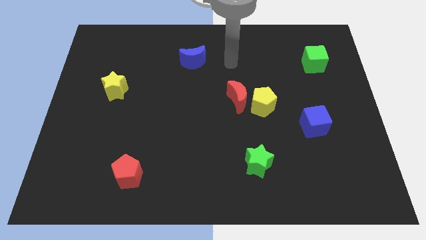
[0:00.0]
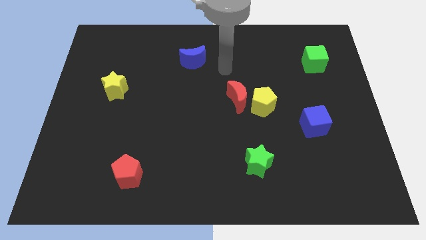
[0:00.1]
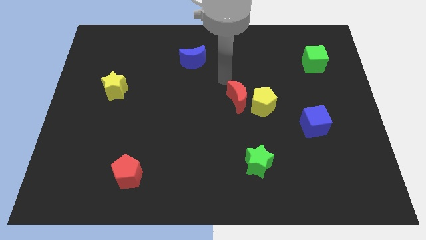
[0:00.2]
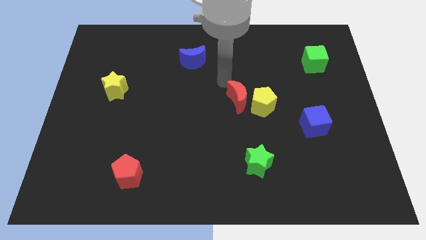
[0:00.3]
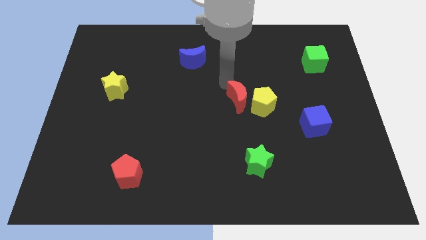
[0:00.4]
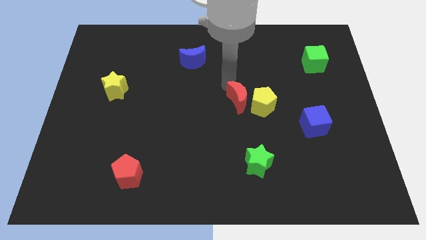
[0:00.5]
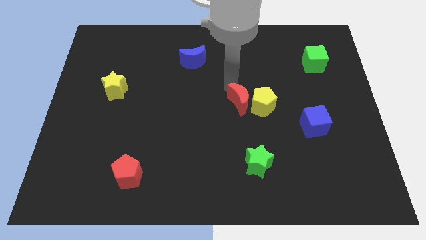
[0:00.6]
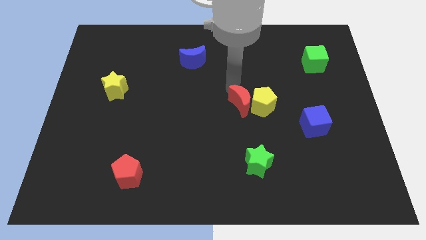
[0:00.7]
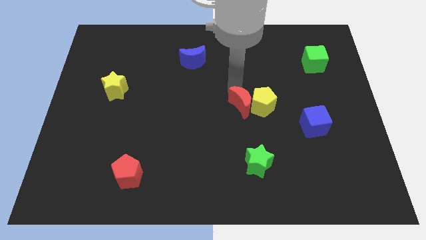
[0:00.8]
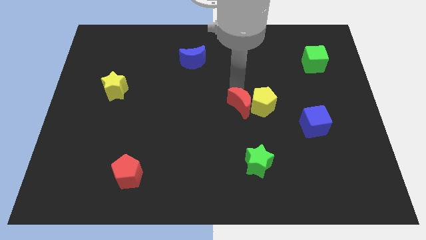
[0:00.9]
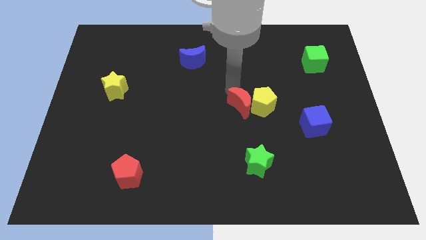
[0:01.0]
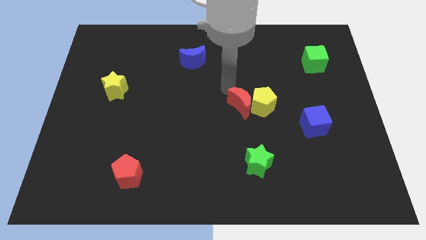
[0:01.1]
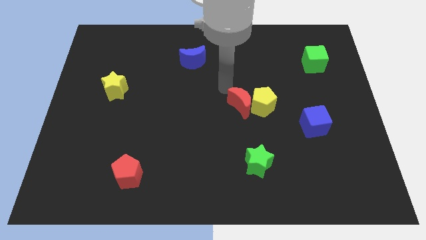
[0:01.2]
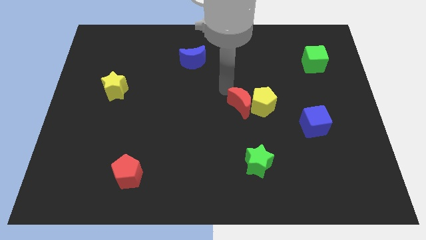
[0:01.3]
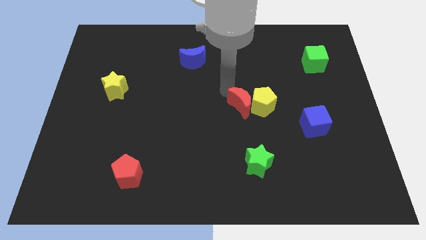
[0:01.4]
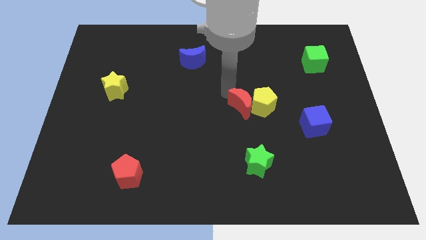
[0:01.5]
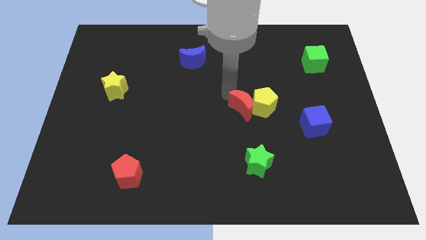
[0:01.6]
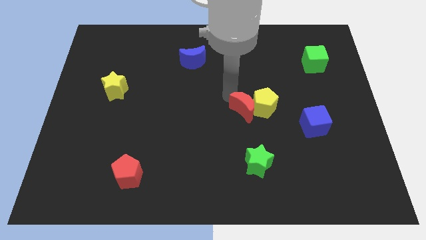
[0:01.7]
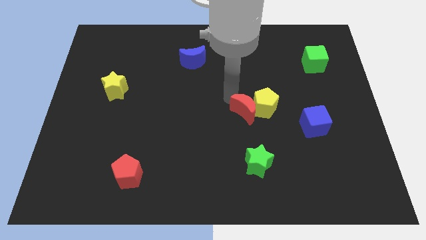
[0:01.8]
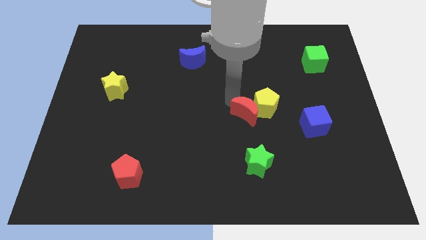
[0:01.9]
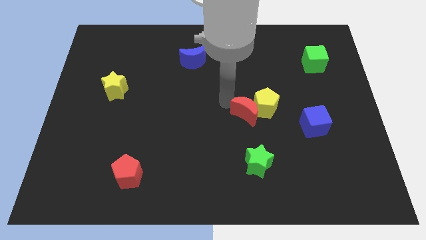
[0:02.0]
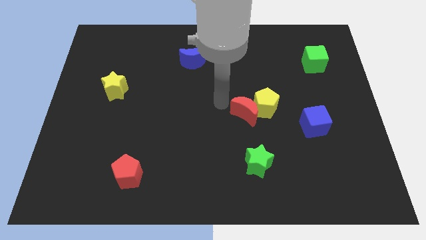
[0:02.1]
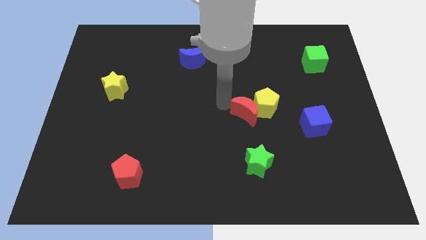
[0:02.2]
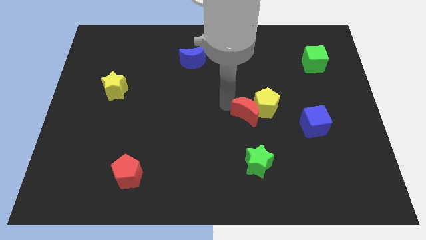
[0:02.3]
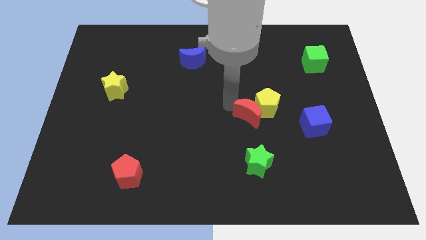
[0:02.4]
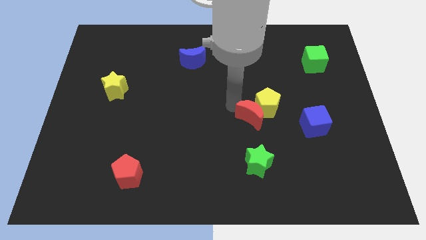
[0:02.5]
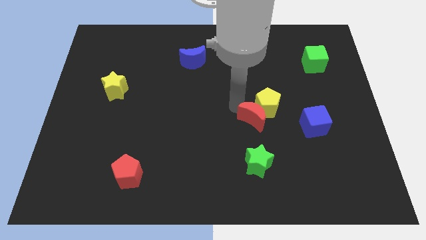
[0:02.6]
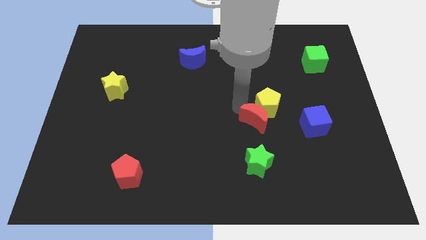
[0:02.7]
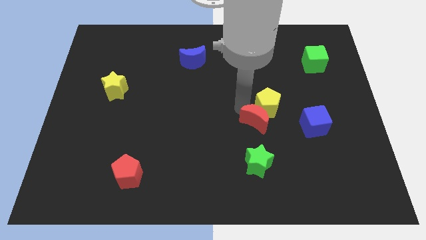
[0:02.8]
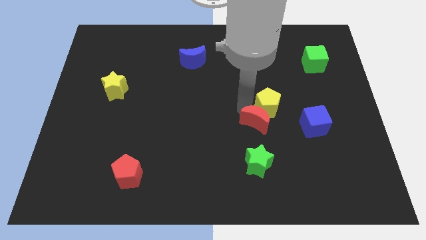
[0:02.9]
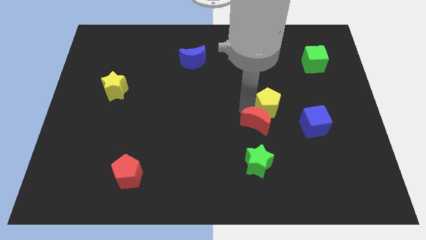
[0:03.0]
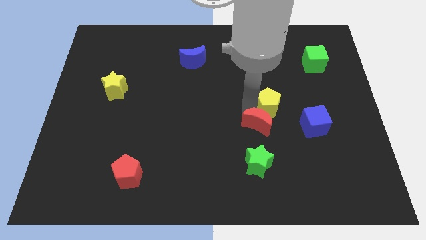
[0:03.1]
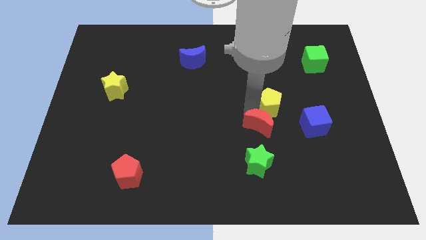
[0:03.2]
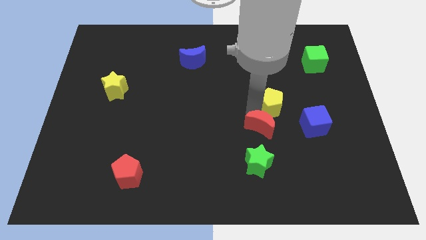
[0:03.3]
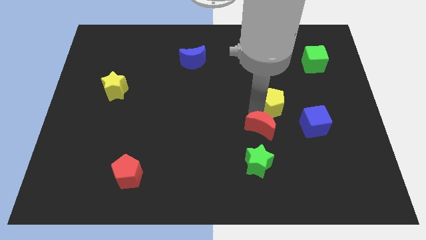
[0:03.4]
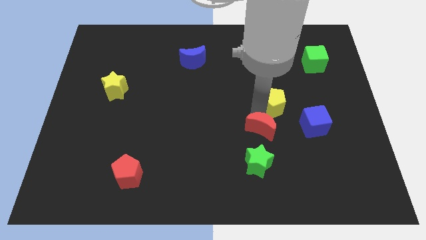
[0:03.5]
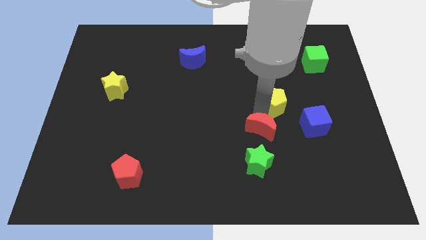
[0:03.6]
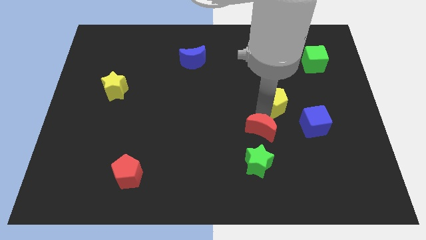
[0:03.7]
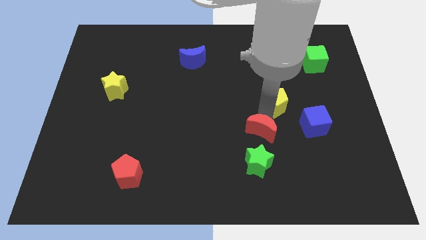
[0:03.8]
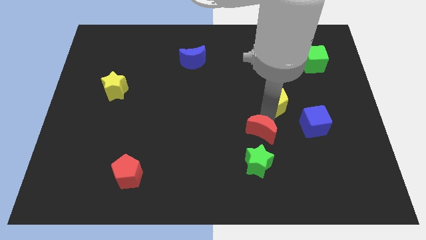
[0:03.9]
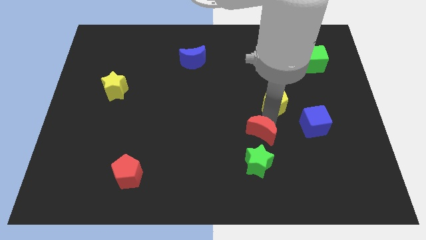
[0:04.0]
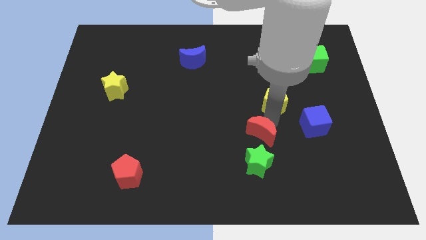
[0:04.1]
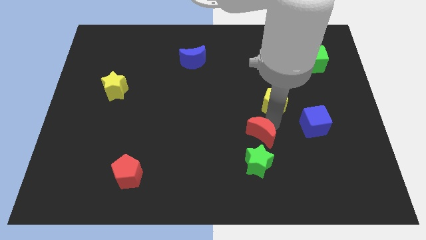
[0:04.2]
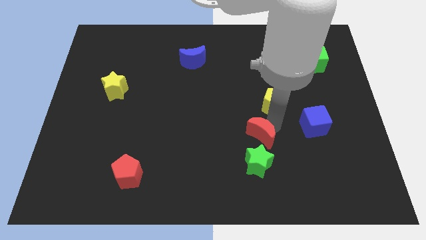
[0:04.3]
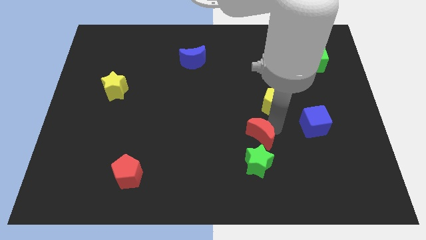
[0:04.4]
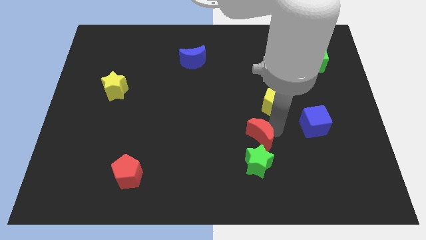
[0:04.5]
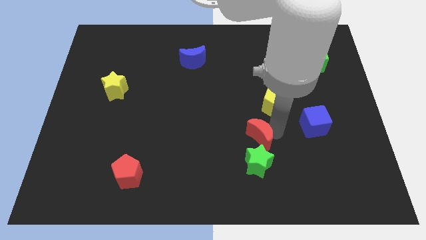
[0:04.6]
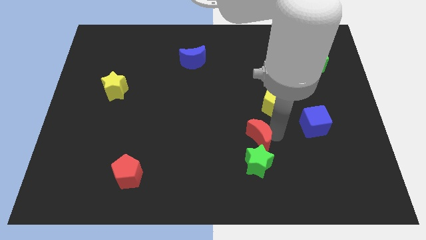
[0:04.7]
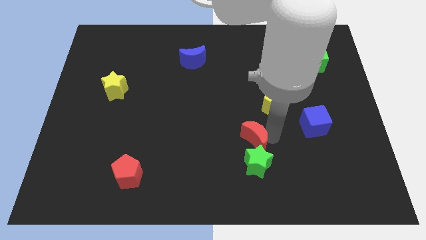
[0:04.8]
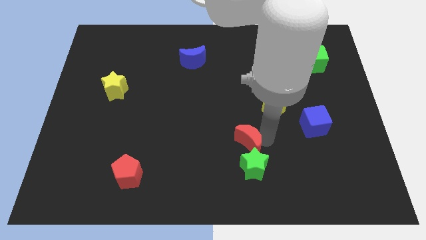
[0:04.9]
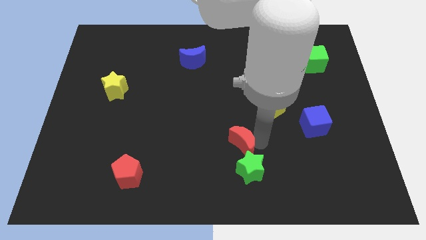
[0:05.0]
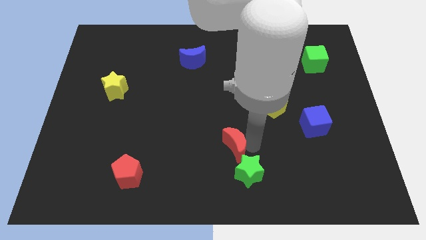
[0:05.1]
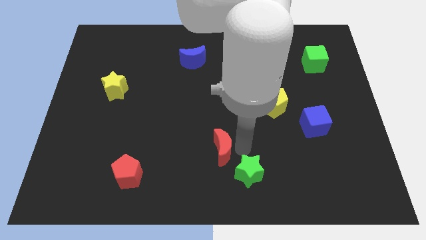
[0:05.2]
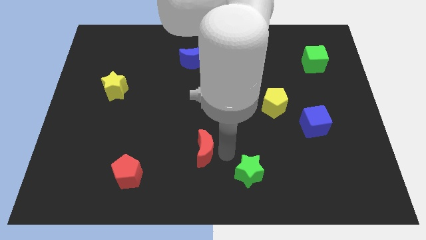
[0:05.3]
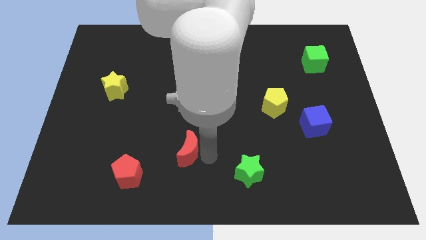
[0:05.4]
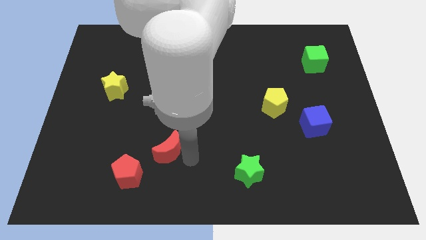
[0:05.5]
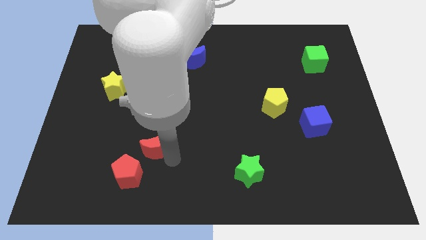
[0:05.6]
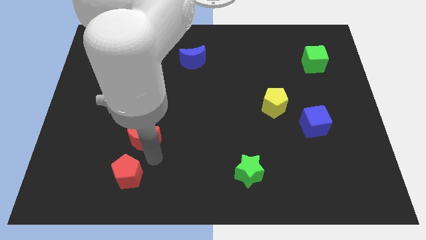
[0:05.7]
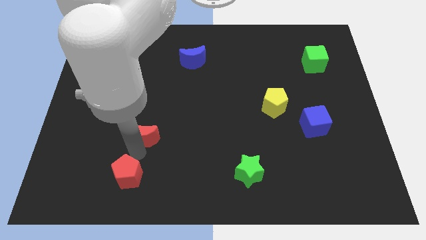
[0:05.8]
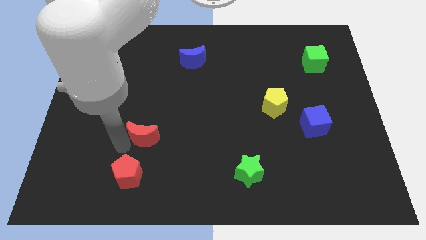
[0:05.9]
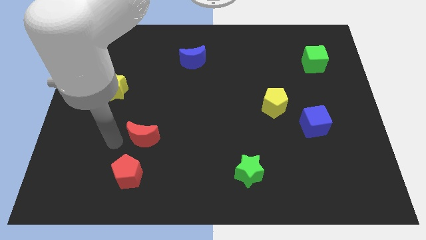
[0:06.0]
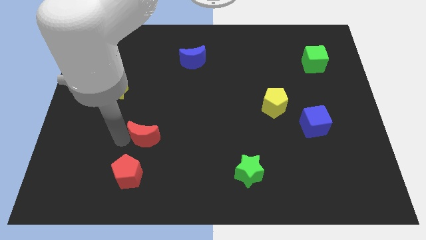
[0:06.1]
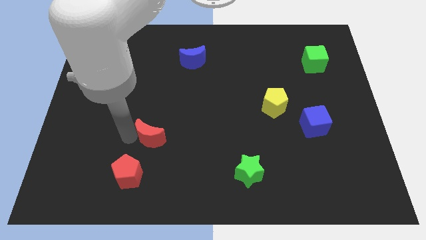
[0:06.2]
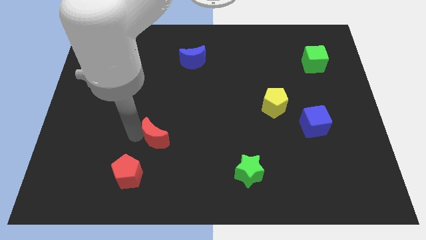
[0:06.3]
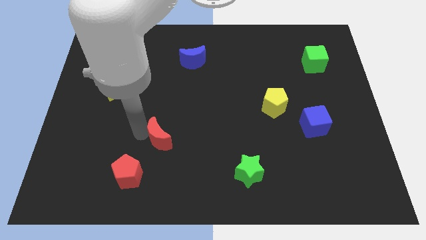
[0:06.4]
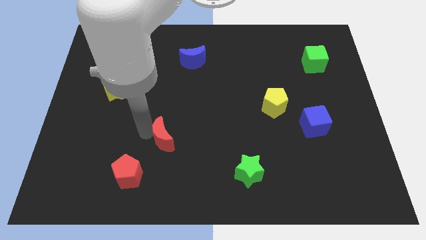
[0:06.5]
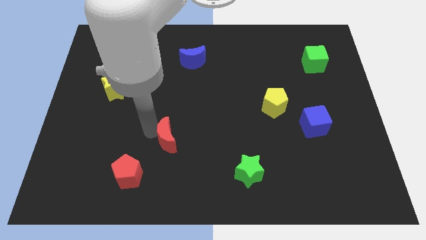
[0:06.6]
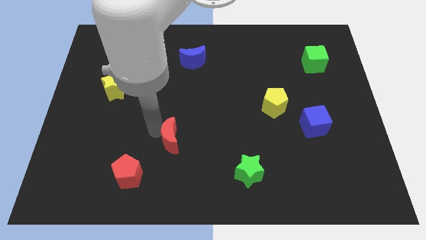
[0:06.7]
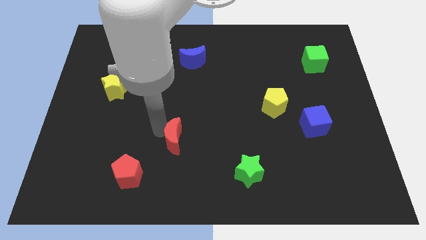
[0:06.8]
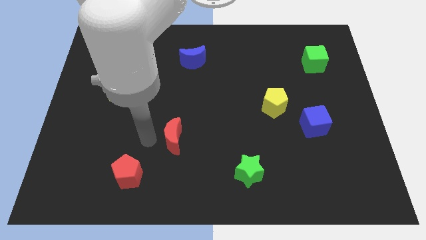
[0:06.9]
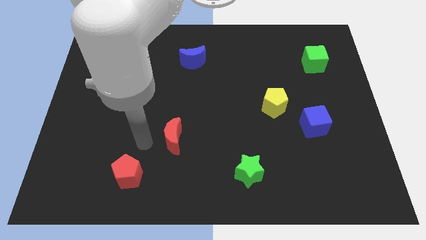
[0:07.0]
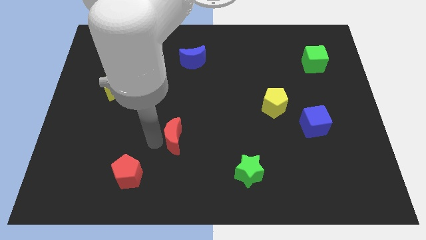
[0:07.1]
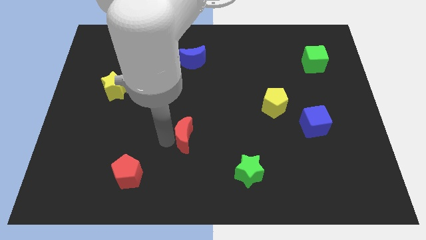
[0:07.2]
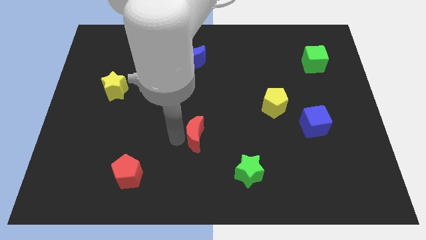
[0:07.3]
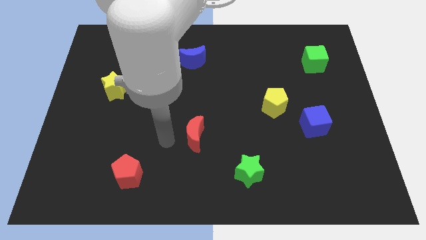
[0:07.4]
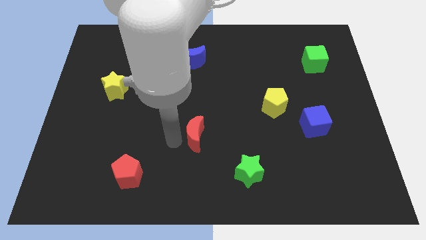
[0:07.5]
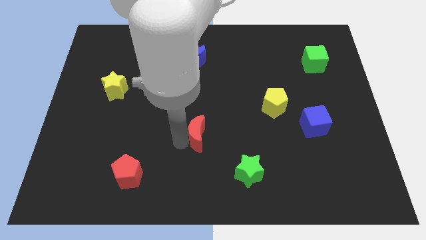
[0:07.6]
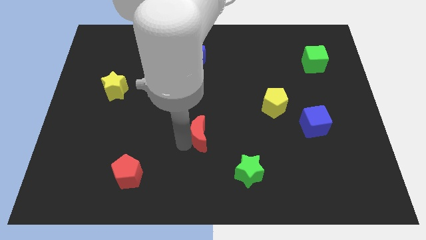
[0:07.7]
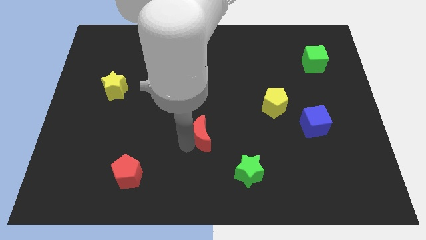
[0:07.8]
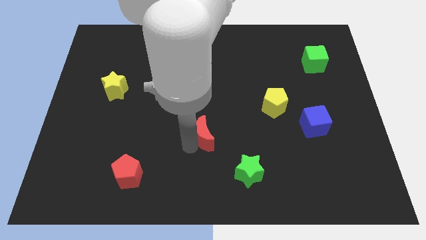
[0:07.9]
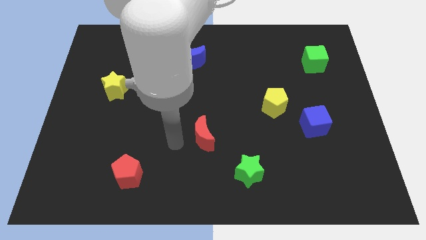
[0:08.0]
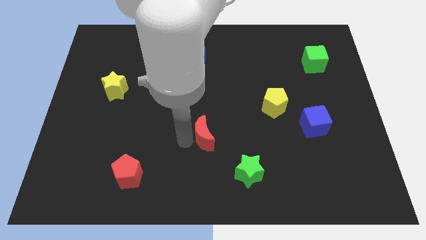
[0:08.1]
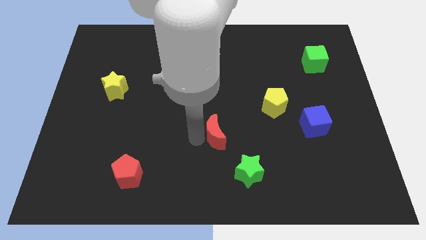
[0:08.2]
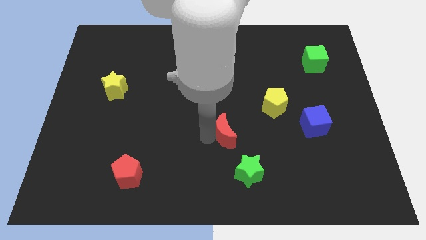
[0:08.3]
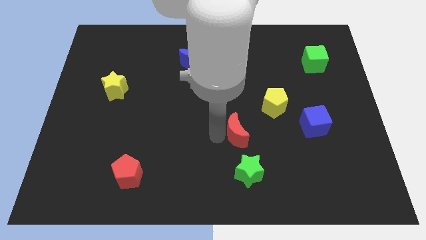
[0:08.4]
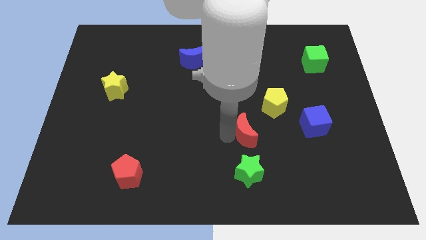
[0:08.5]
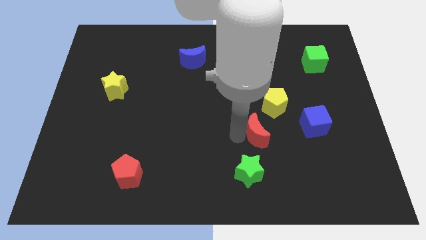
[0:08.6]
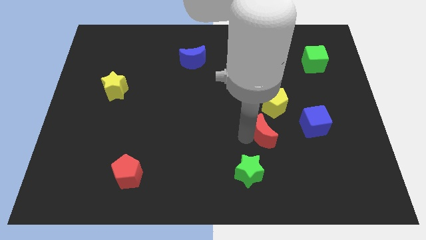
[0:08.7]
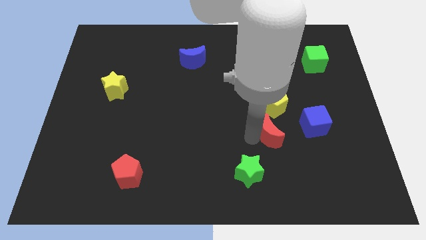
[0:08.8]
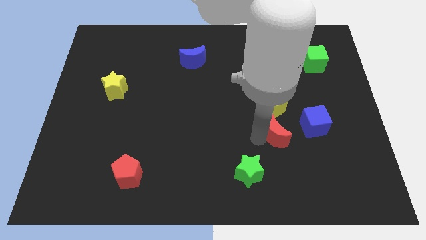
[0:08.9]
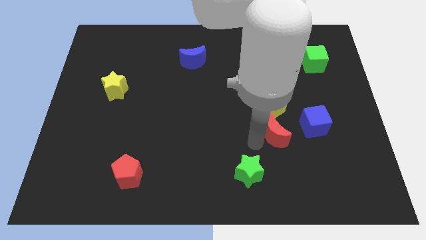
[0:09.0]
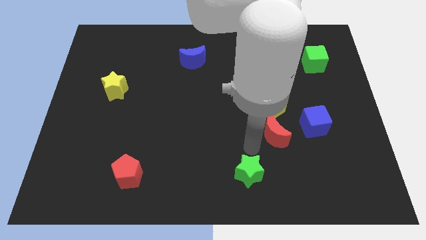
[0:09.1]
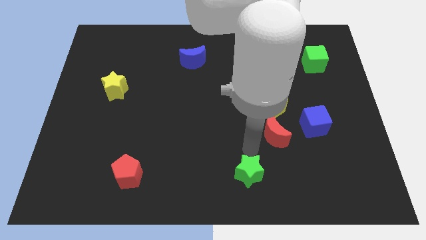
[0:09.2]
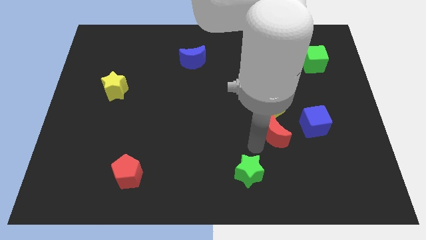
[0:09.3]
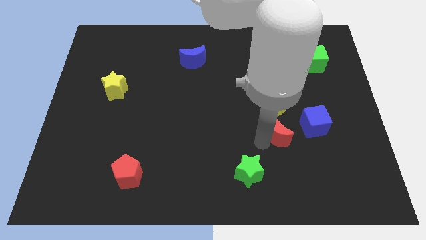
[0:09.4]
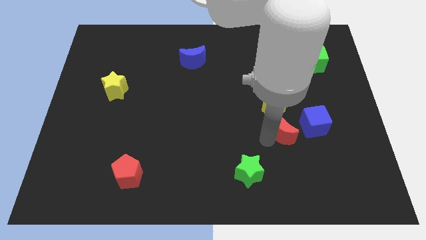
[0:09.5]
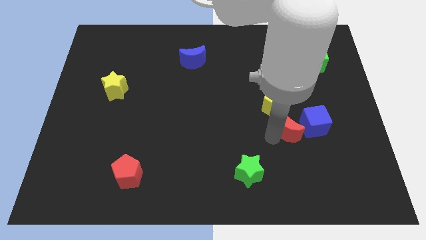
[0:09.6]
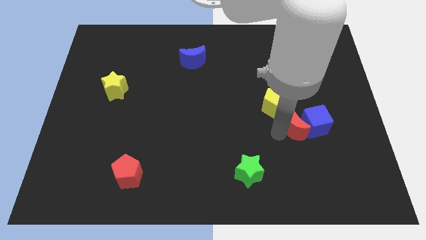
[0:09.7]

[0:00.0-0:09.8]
put the red moon to the blue cube
